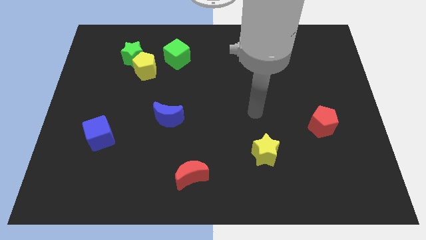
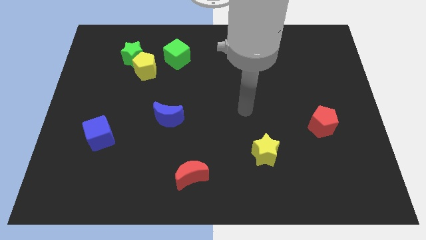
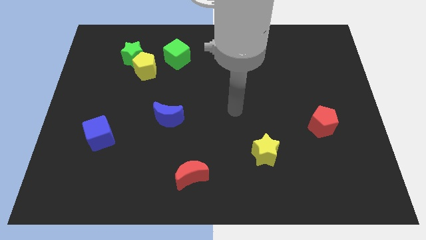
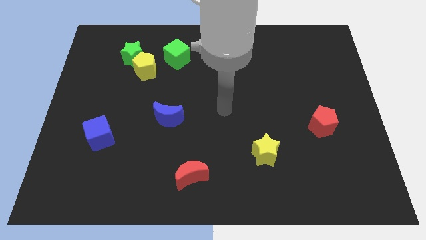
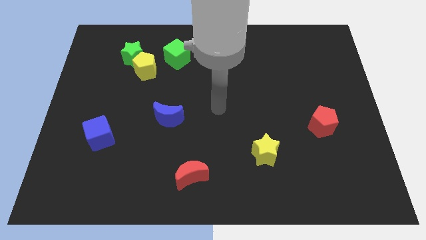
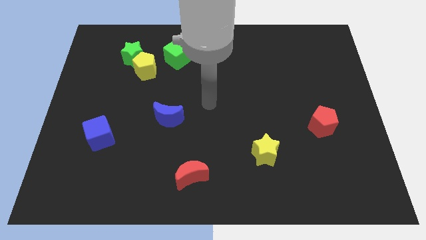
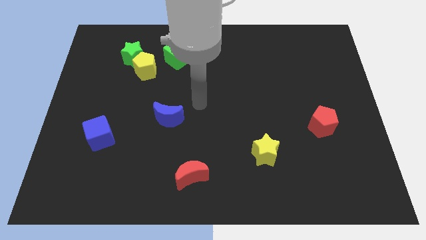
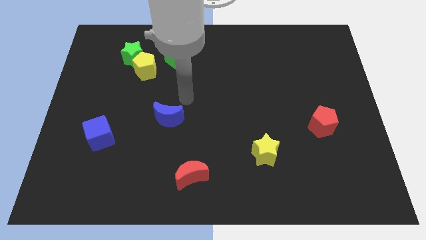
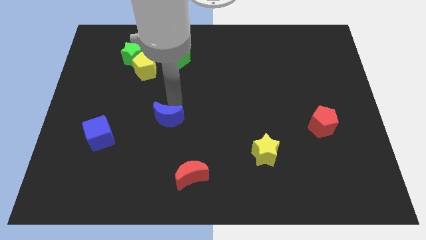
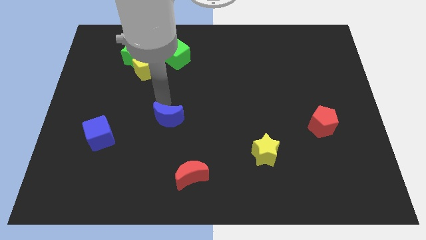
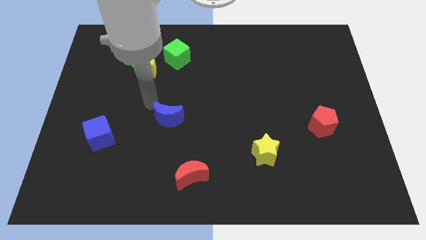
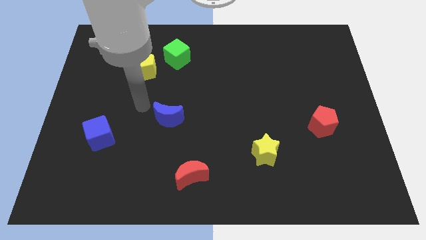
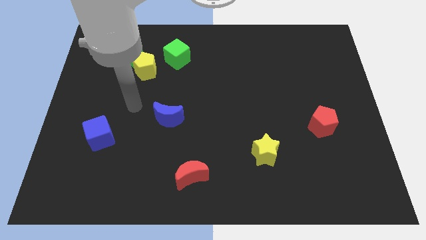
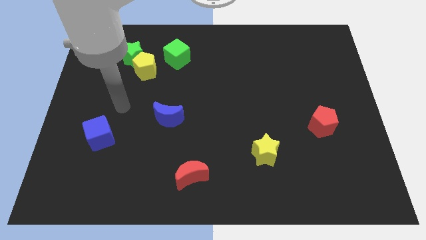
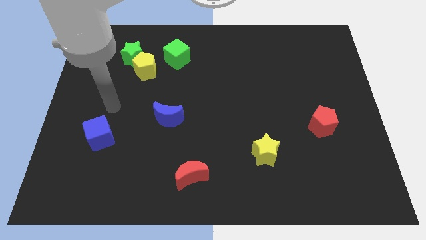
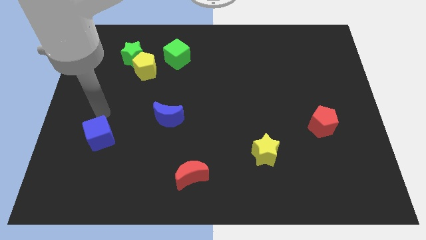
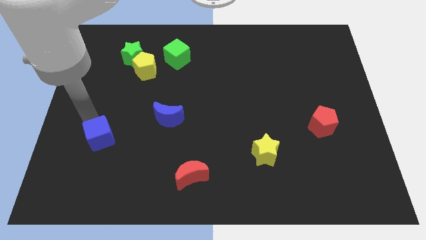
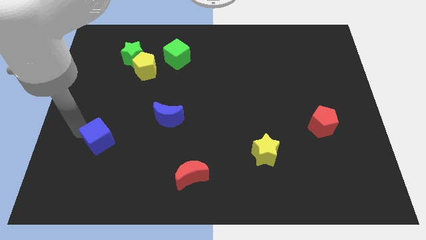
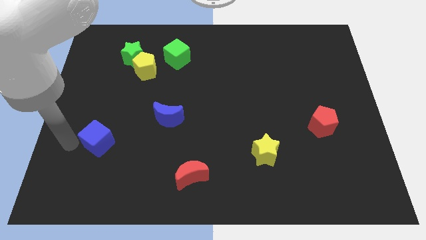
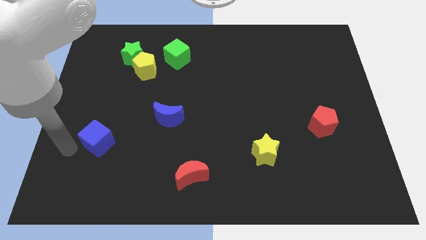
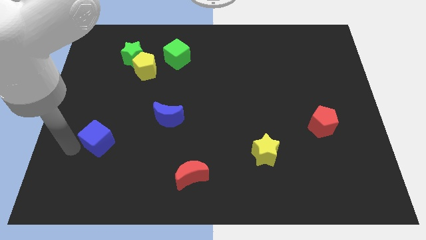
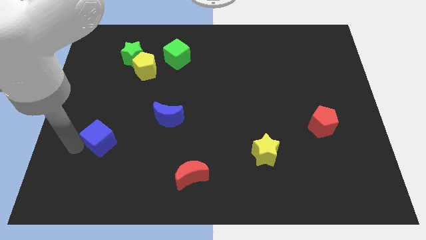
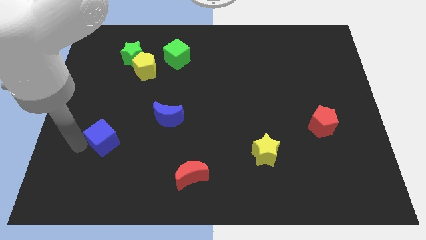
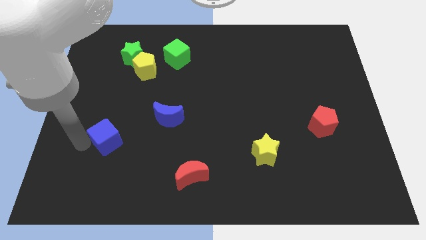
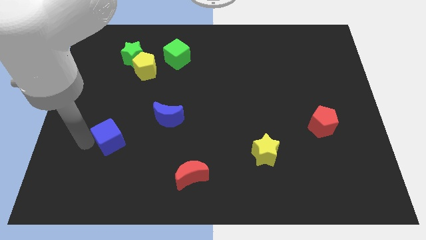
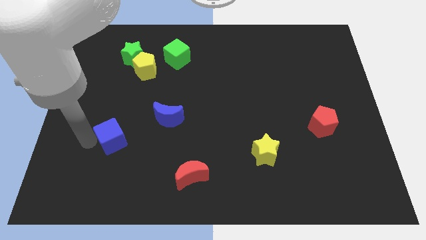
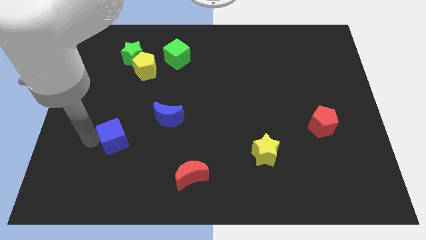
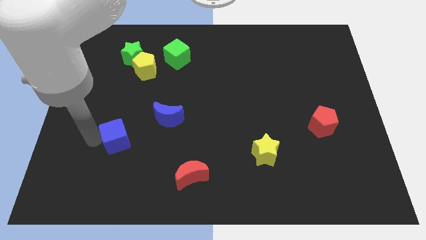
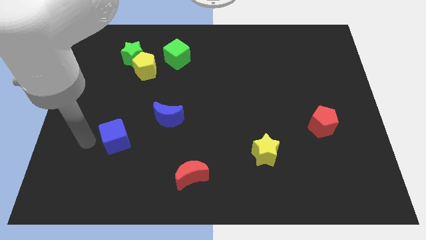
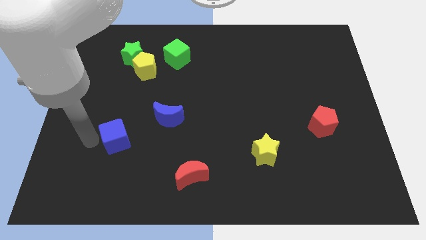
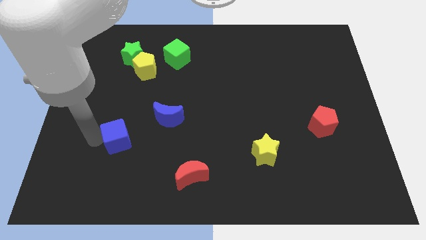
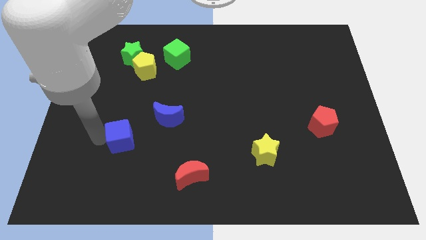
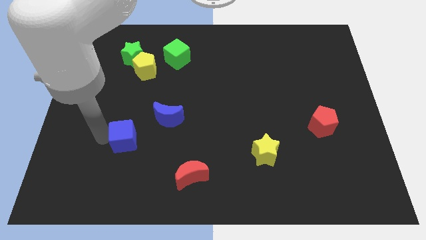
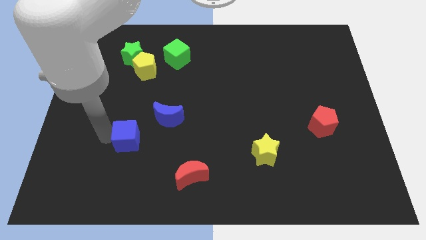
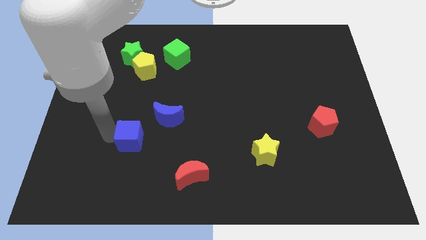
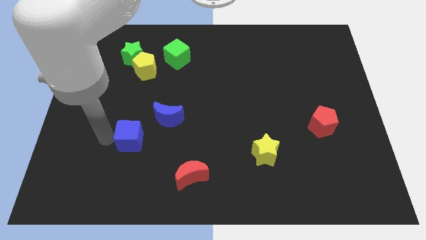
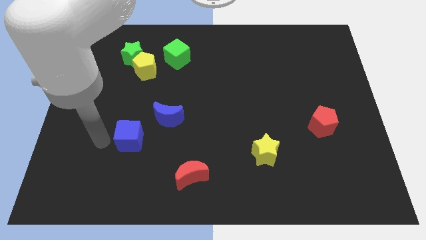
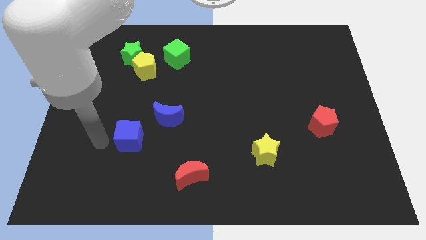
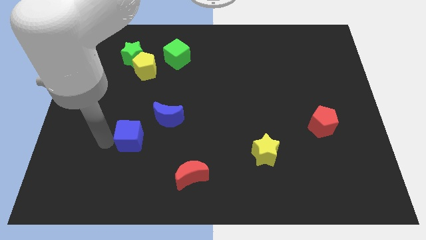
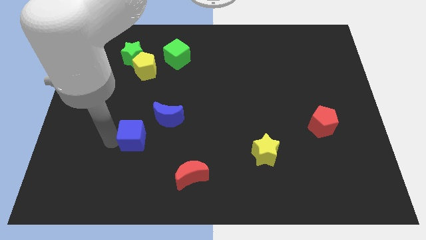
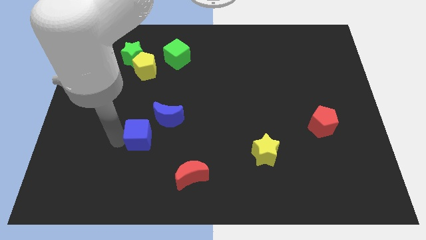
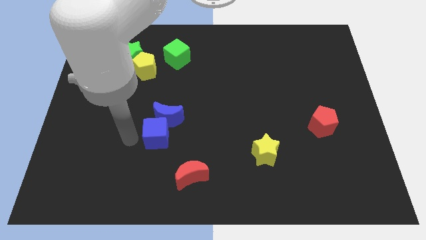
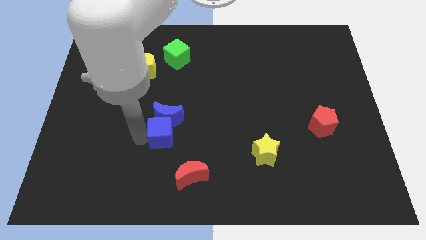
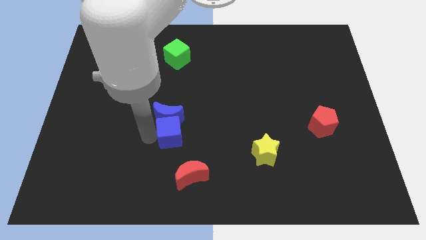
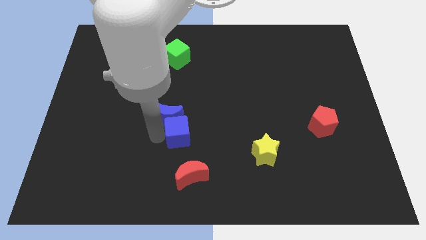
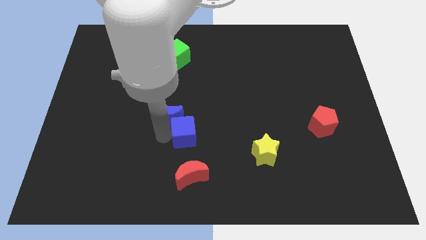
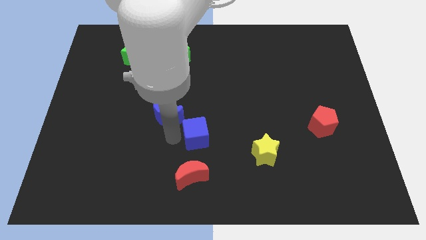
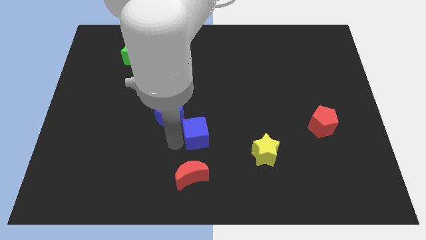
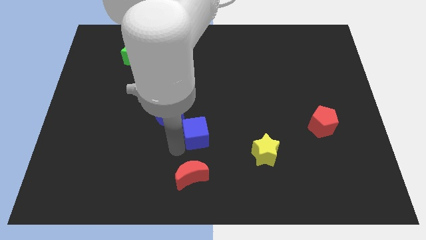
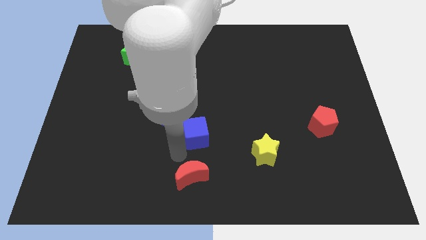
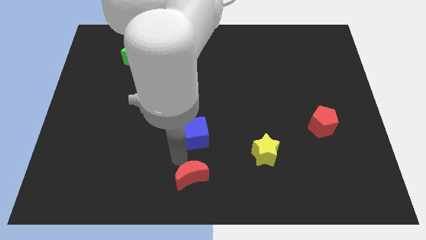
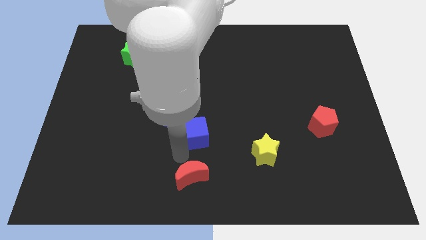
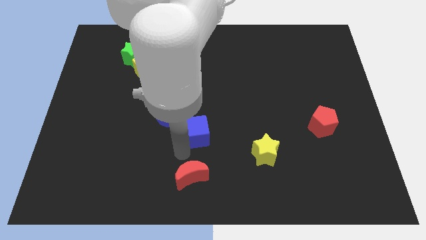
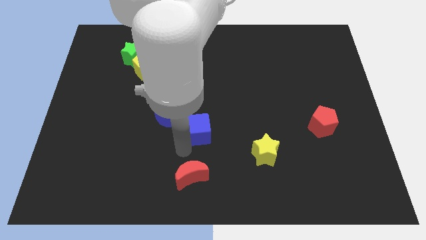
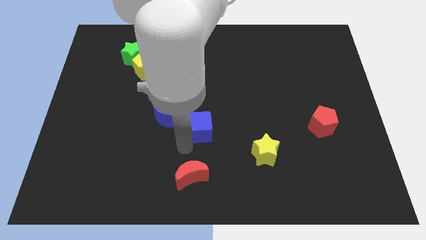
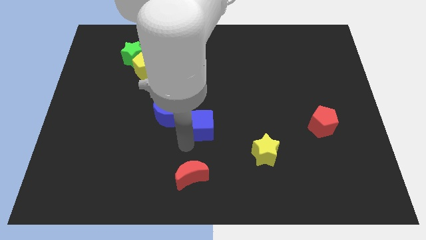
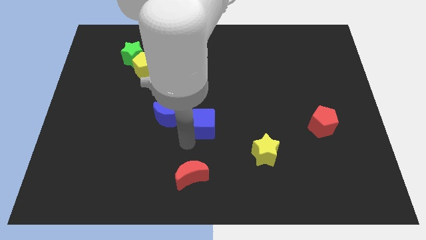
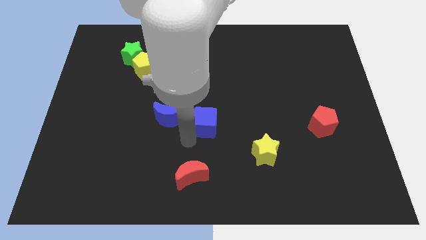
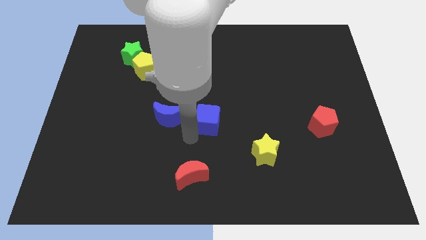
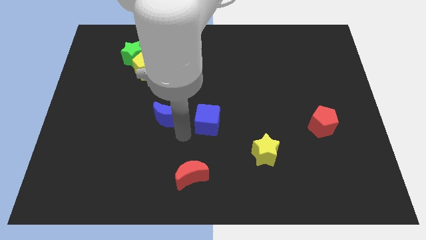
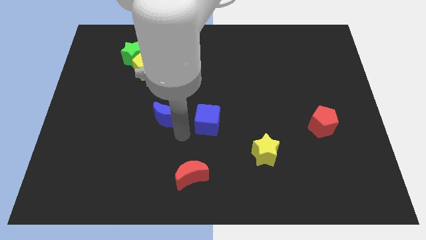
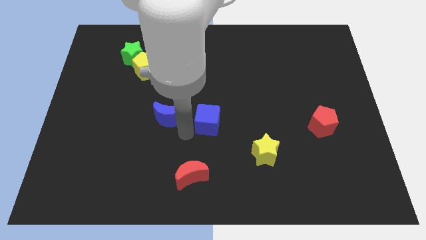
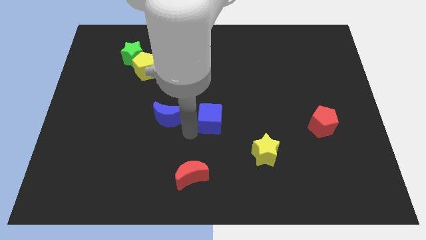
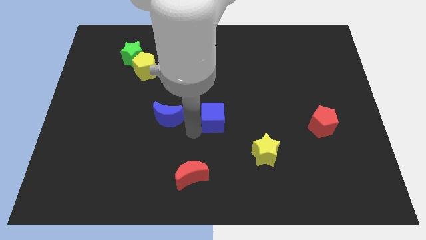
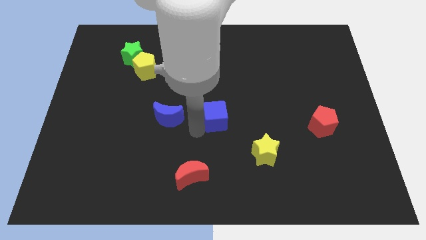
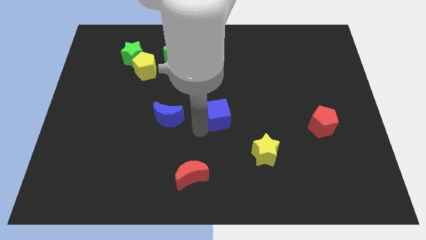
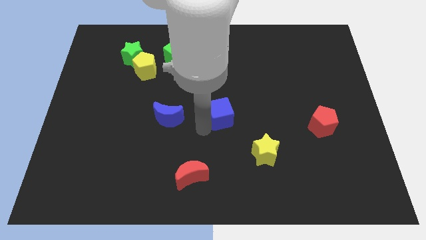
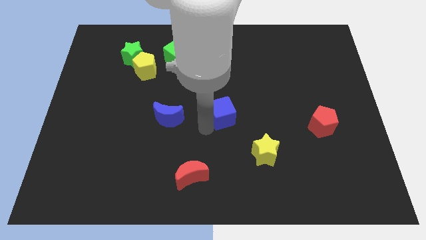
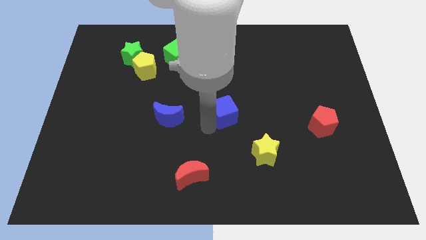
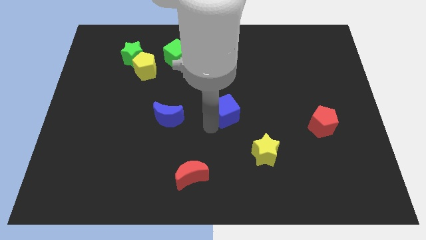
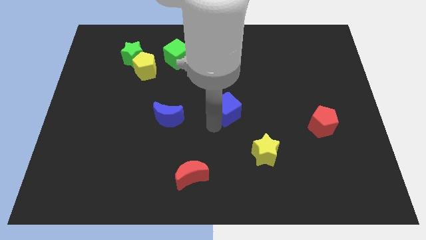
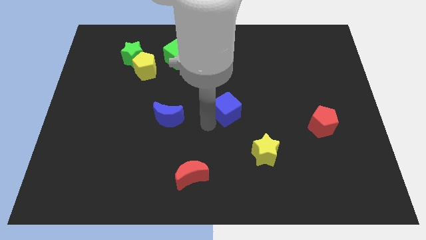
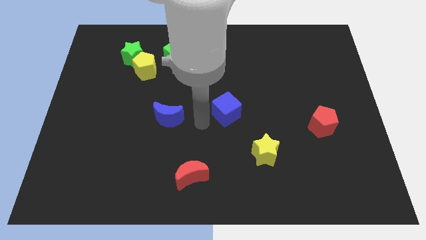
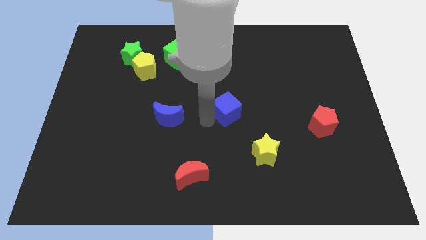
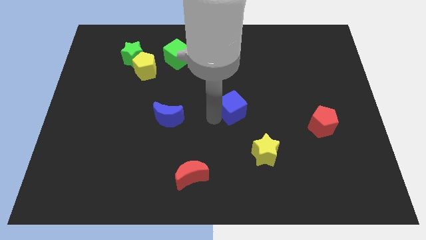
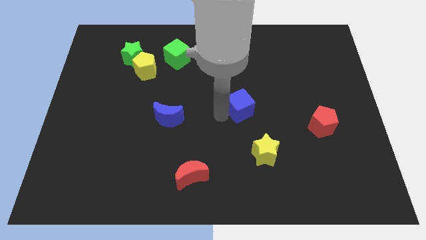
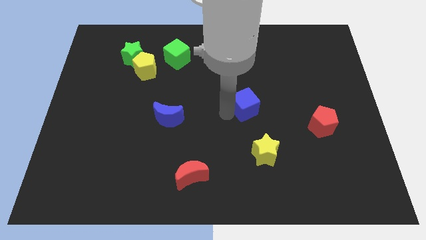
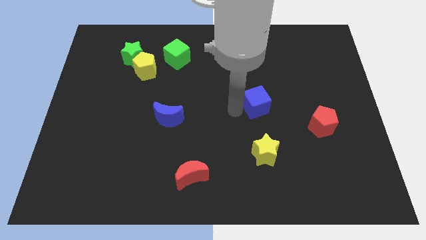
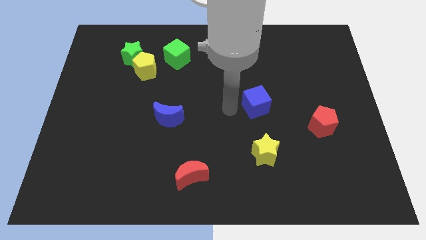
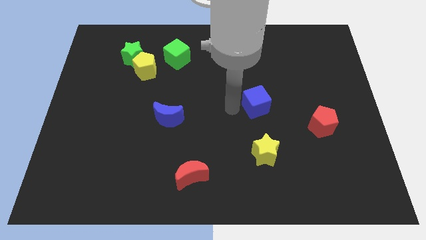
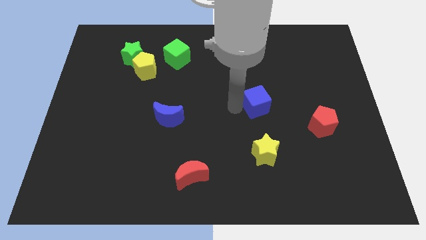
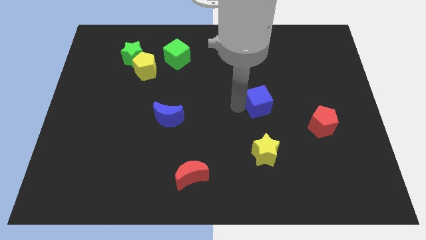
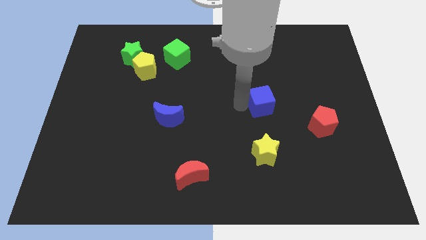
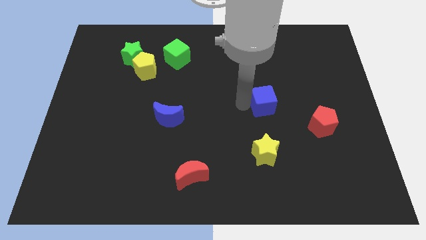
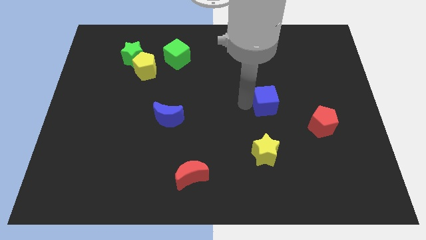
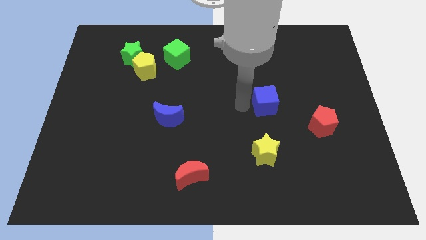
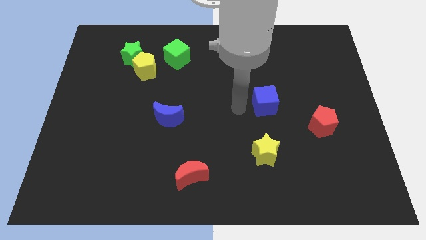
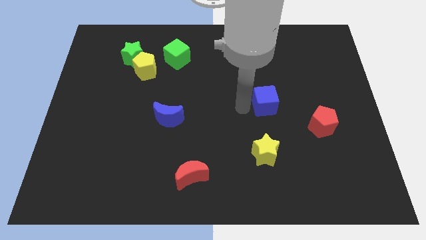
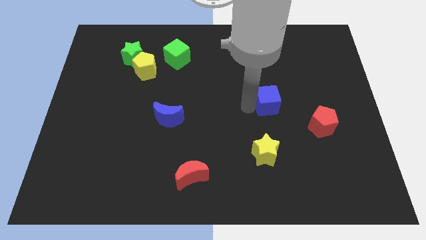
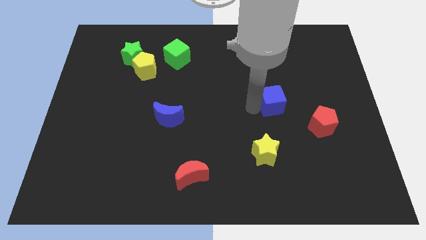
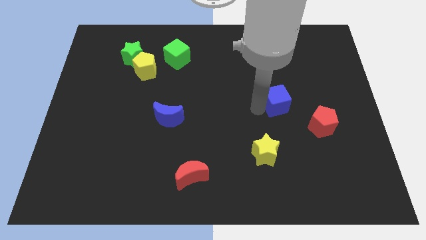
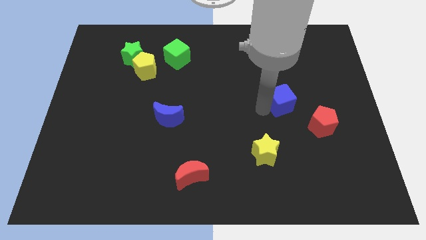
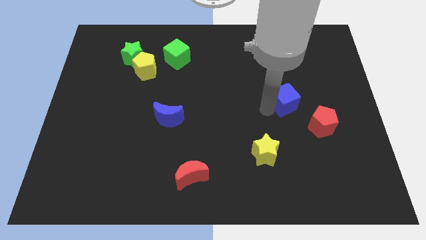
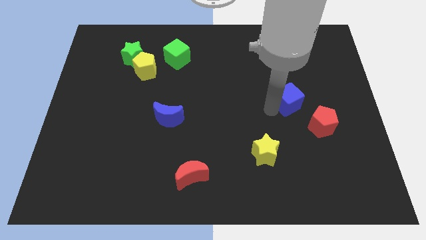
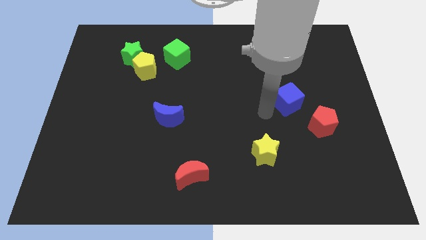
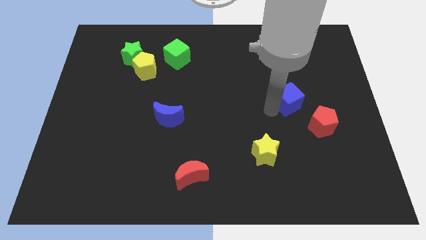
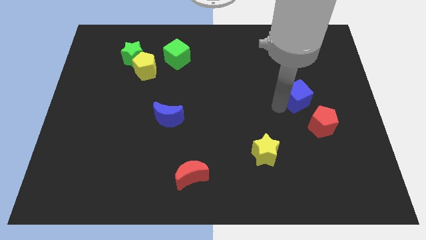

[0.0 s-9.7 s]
slide the blue cube to the top of the red pentagon
